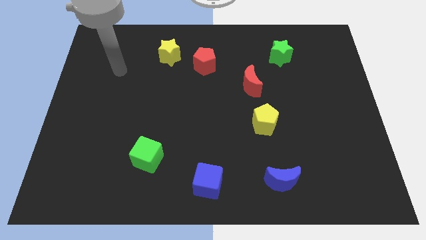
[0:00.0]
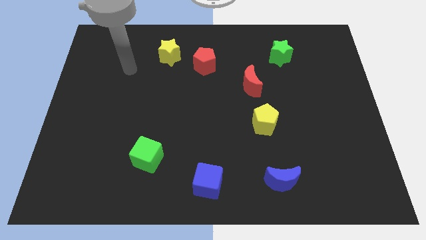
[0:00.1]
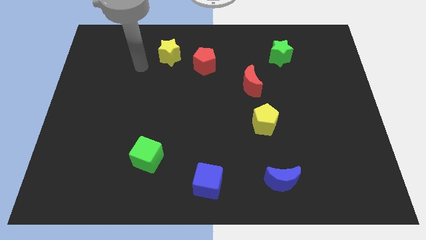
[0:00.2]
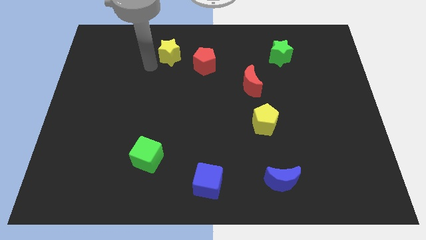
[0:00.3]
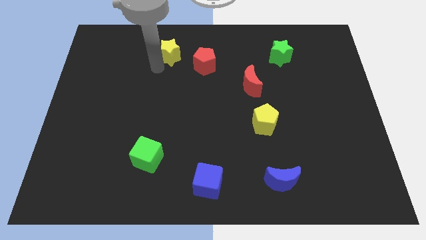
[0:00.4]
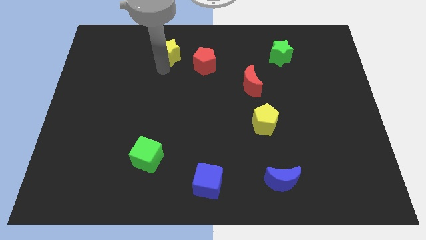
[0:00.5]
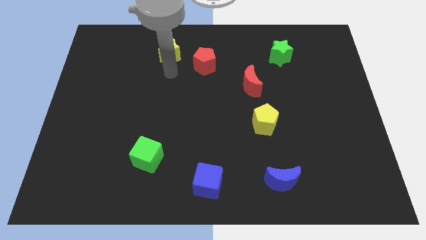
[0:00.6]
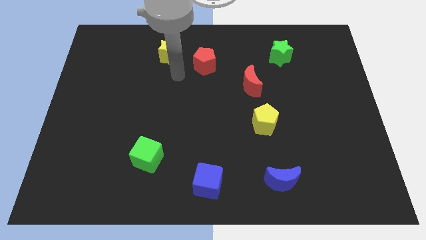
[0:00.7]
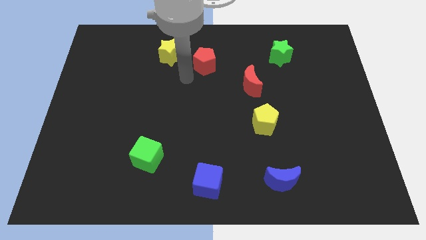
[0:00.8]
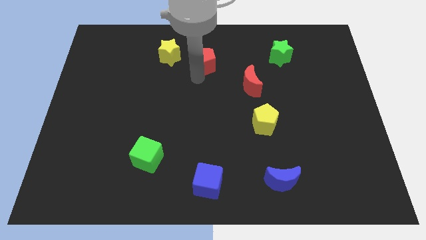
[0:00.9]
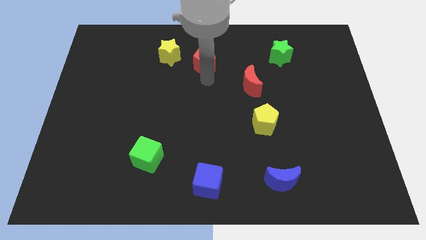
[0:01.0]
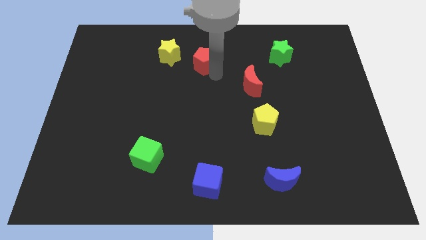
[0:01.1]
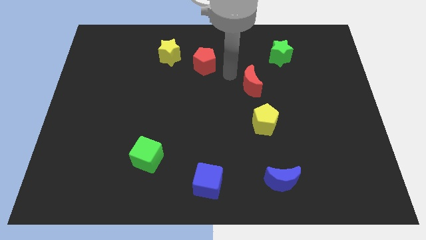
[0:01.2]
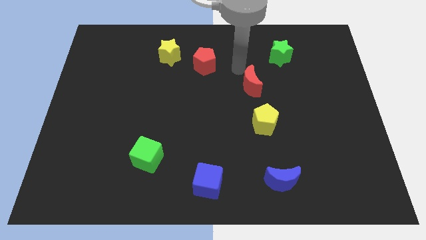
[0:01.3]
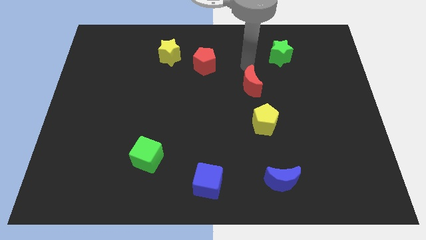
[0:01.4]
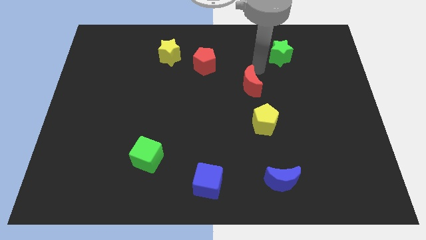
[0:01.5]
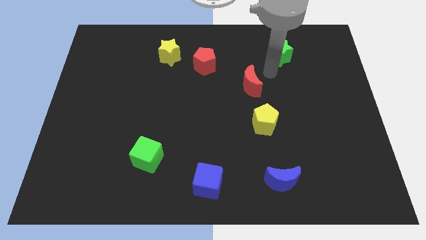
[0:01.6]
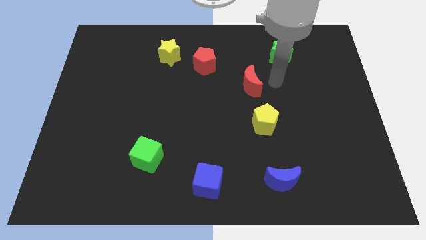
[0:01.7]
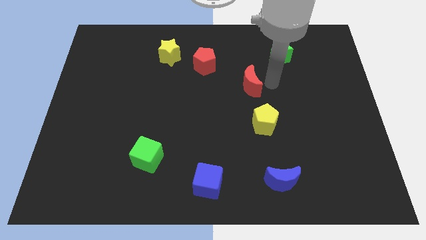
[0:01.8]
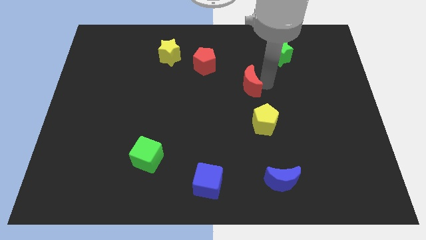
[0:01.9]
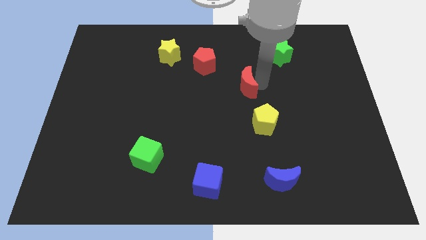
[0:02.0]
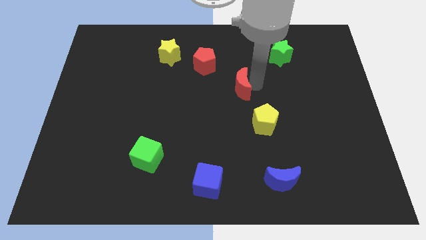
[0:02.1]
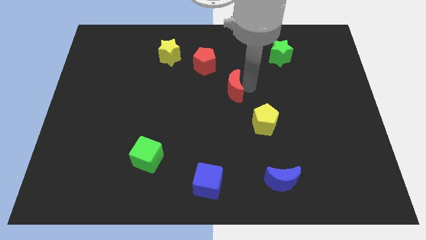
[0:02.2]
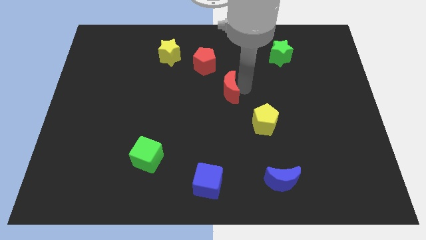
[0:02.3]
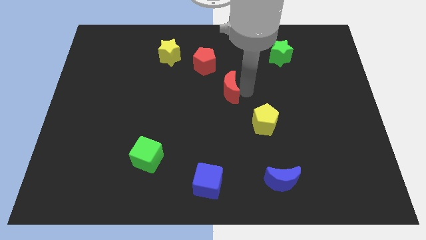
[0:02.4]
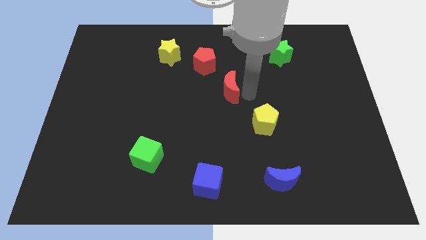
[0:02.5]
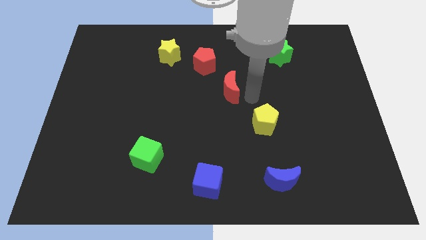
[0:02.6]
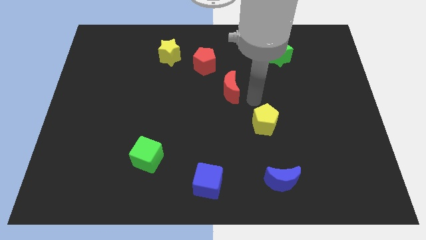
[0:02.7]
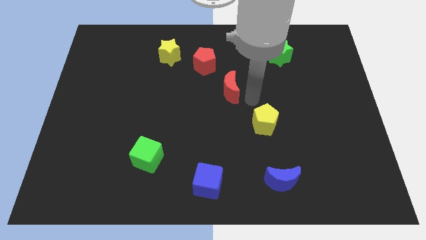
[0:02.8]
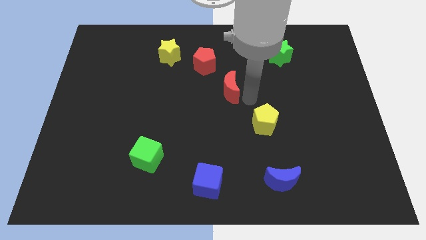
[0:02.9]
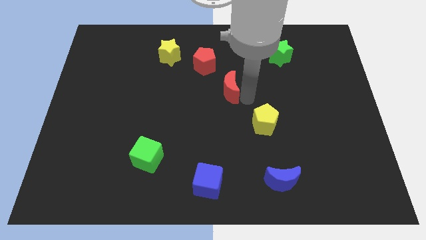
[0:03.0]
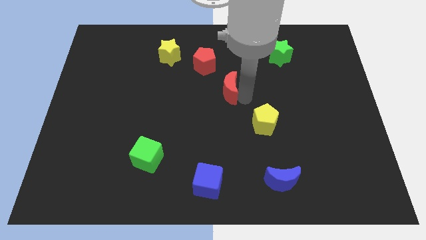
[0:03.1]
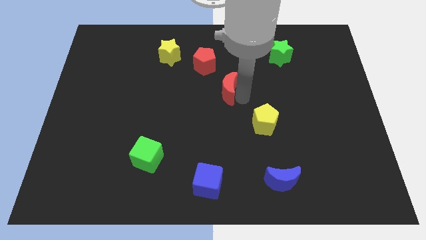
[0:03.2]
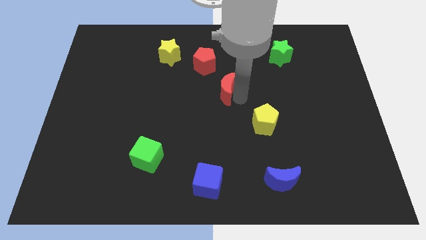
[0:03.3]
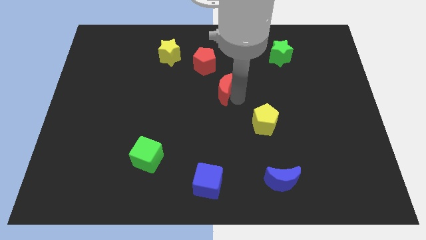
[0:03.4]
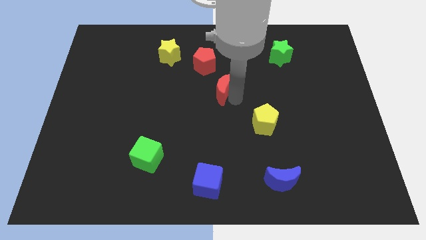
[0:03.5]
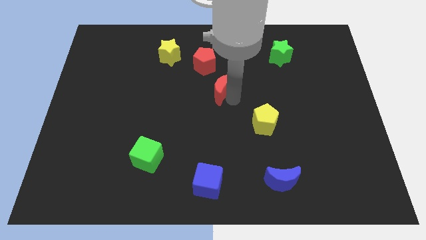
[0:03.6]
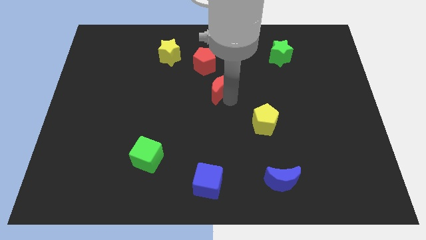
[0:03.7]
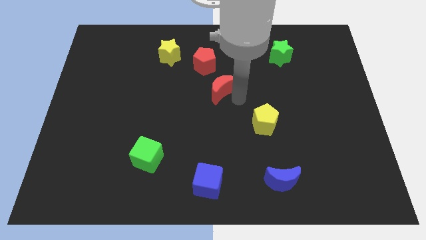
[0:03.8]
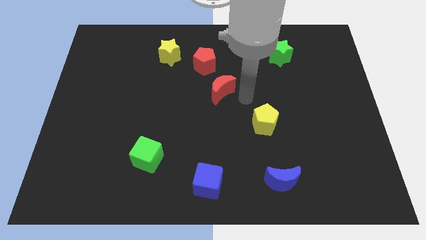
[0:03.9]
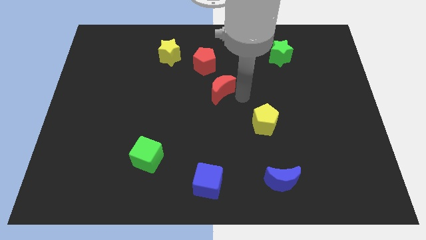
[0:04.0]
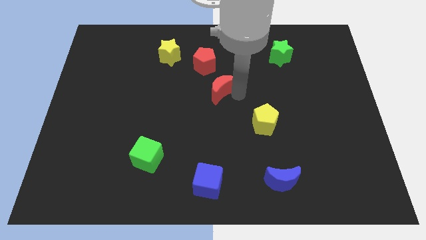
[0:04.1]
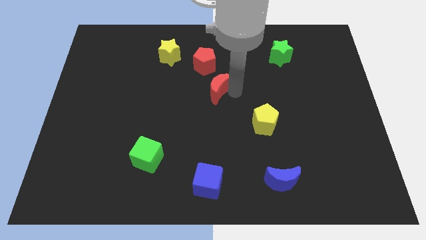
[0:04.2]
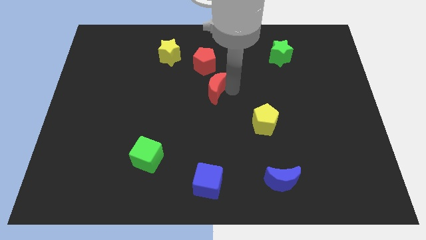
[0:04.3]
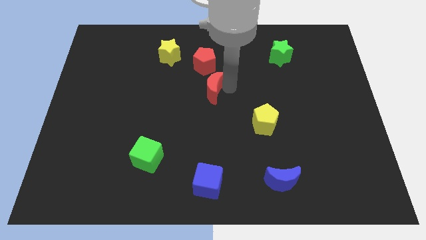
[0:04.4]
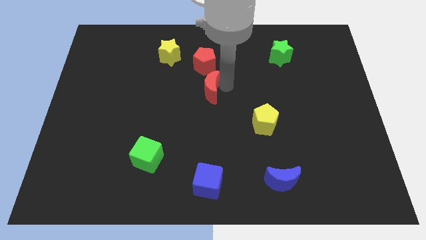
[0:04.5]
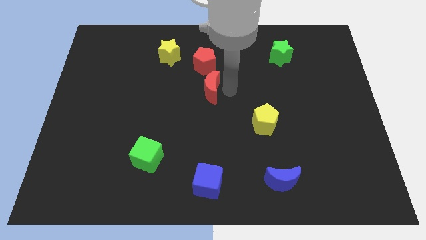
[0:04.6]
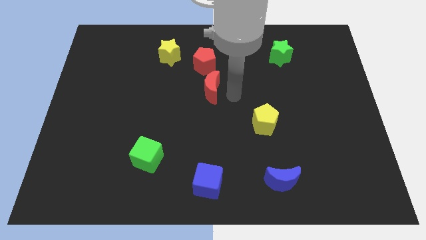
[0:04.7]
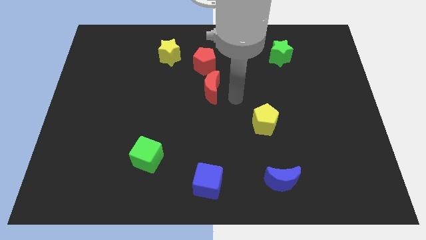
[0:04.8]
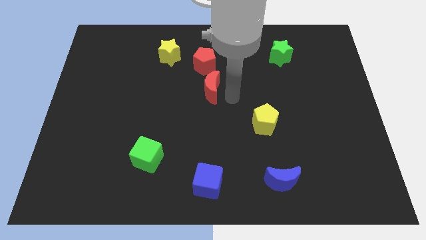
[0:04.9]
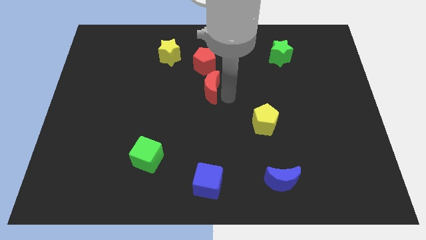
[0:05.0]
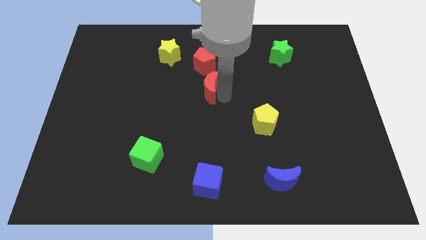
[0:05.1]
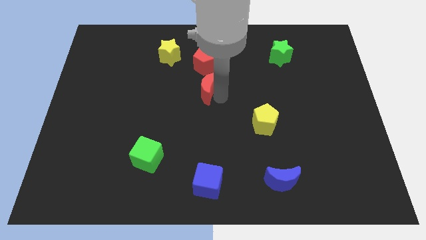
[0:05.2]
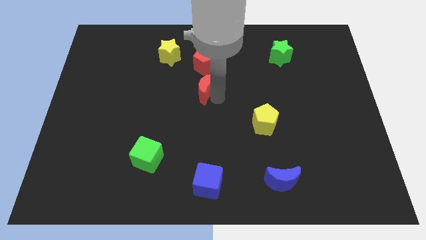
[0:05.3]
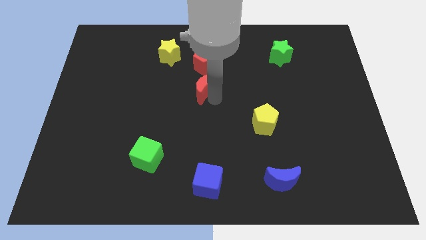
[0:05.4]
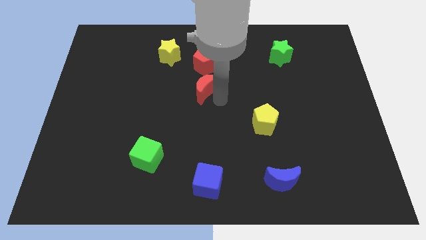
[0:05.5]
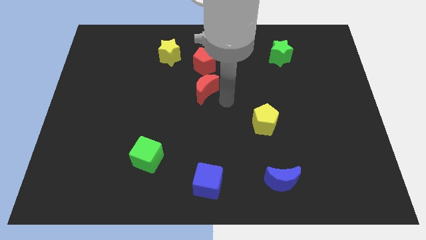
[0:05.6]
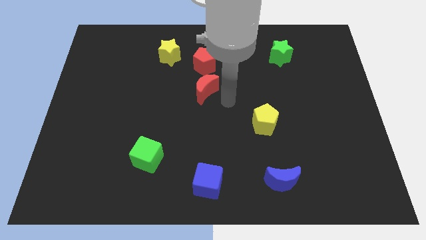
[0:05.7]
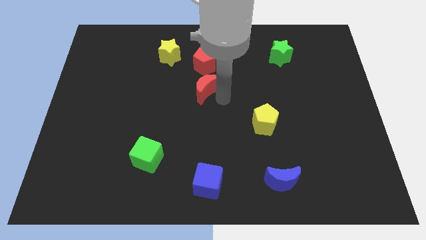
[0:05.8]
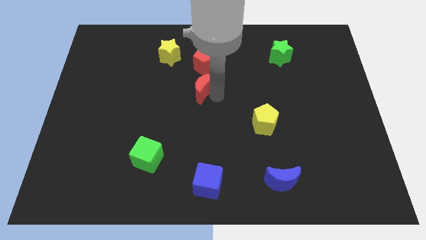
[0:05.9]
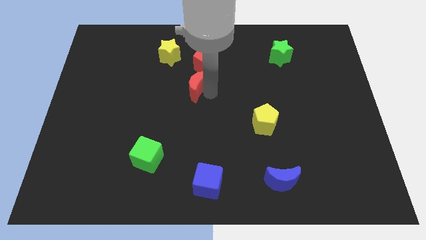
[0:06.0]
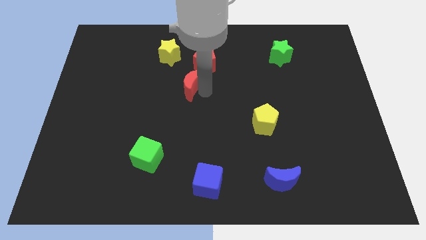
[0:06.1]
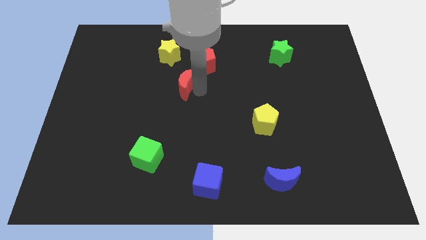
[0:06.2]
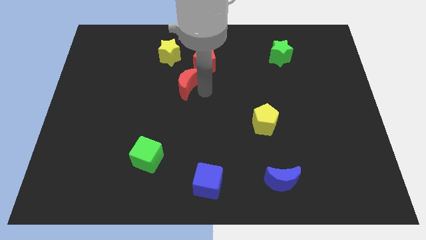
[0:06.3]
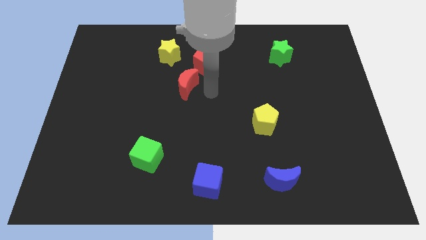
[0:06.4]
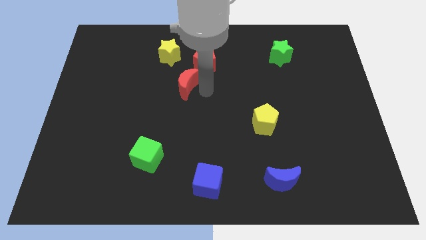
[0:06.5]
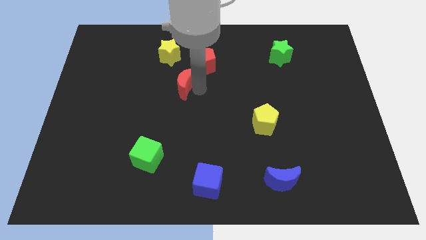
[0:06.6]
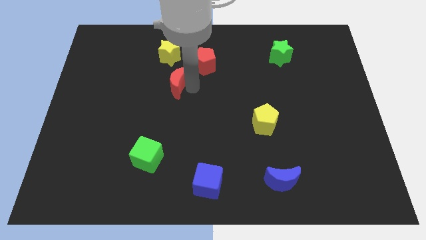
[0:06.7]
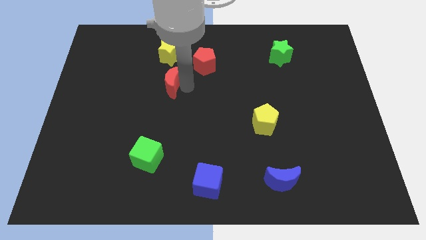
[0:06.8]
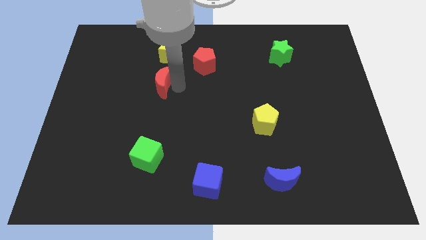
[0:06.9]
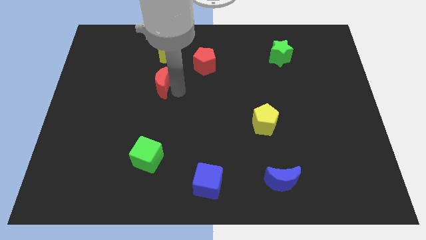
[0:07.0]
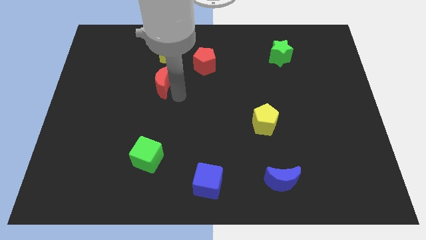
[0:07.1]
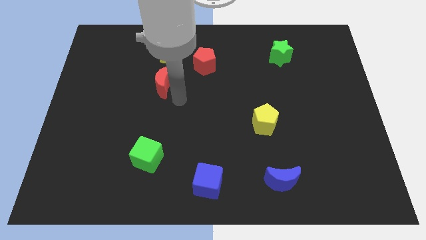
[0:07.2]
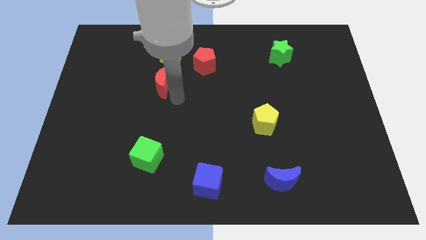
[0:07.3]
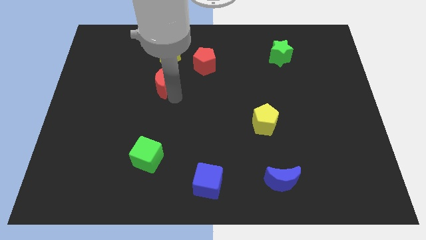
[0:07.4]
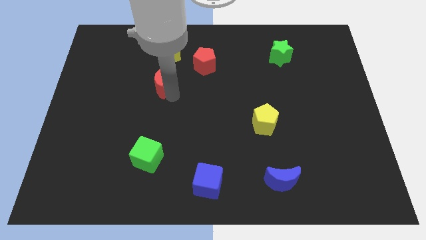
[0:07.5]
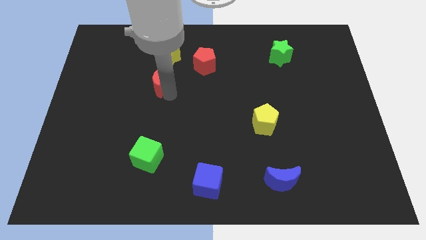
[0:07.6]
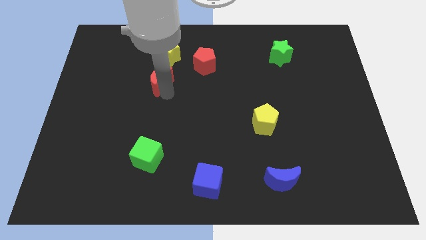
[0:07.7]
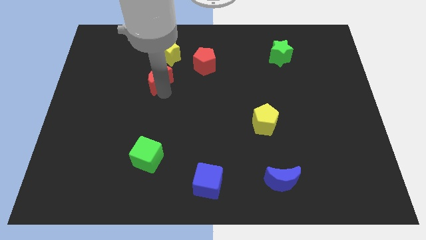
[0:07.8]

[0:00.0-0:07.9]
push the red moon to the bottom left of the yellow star
